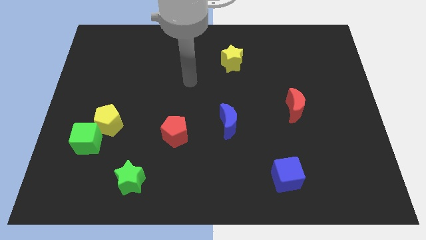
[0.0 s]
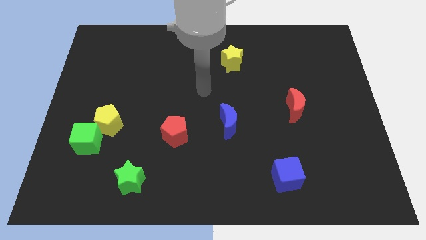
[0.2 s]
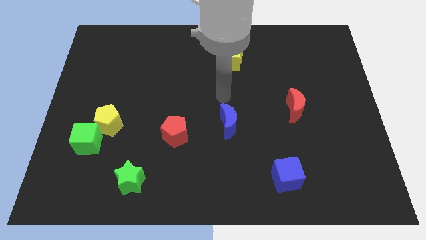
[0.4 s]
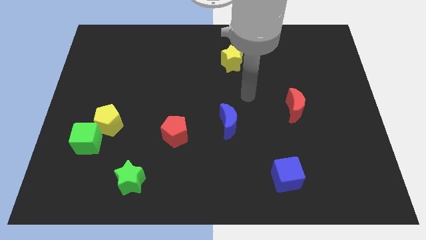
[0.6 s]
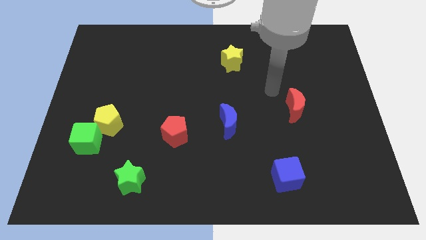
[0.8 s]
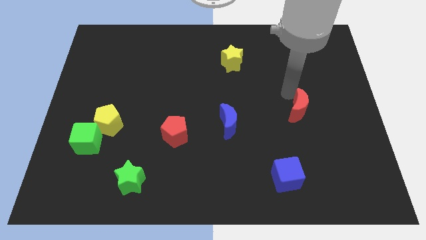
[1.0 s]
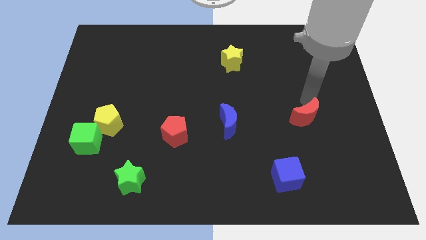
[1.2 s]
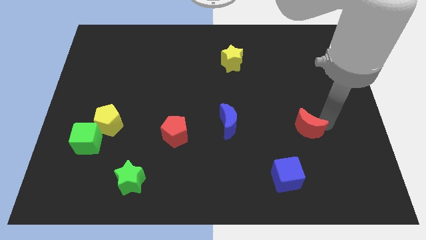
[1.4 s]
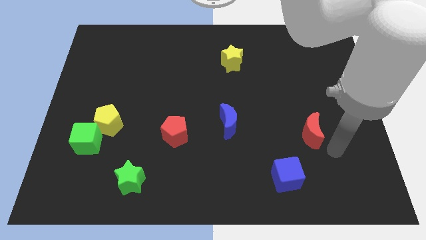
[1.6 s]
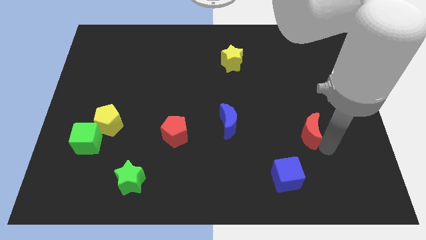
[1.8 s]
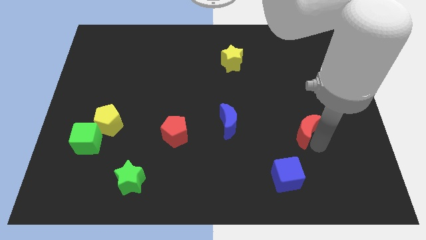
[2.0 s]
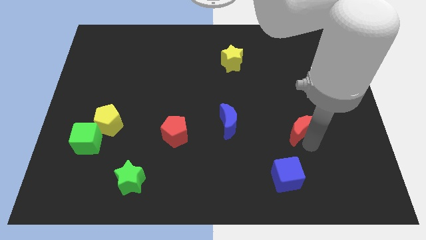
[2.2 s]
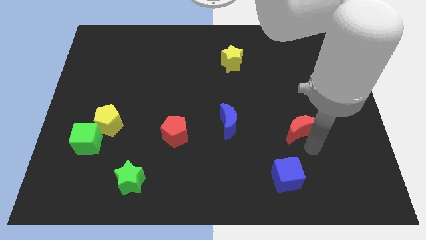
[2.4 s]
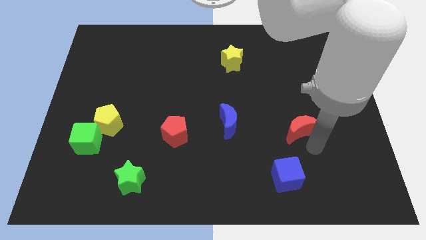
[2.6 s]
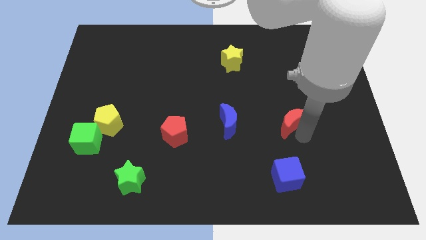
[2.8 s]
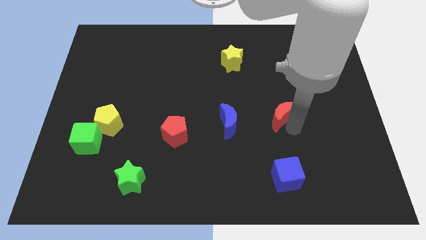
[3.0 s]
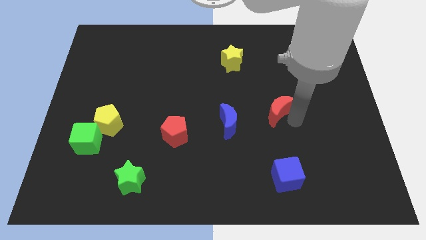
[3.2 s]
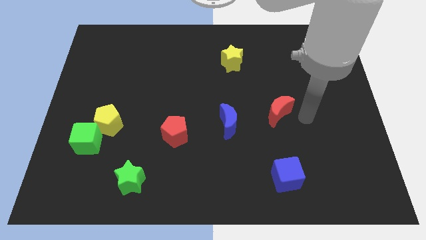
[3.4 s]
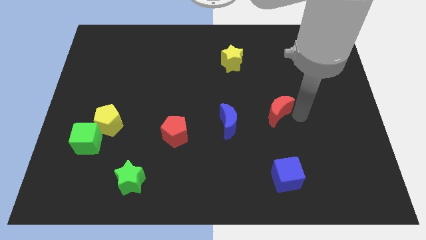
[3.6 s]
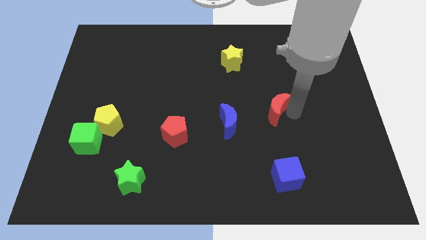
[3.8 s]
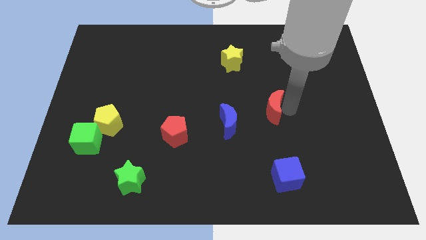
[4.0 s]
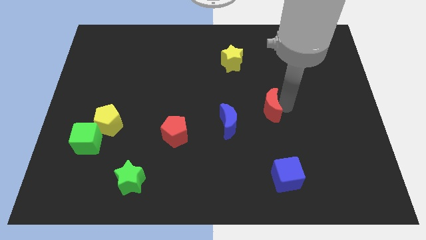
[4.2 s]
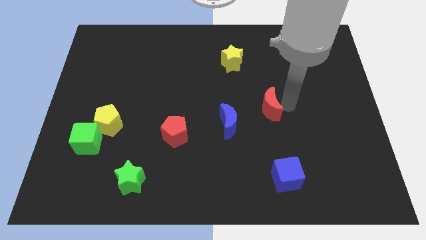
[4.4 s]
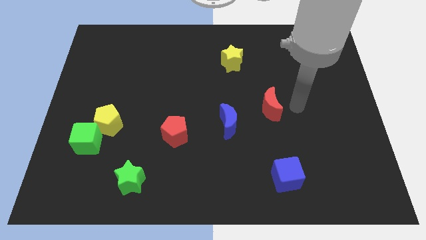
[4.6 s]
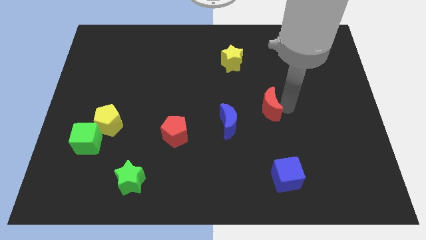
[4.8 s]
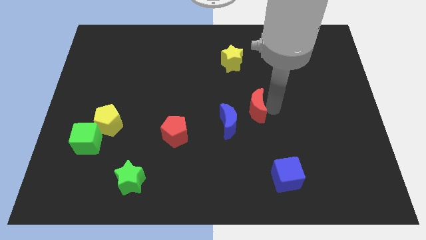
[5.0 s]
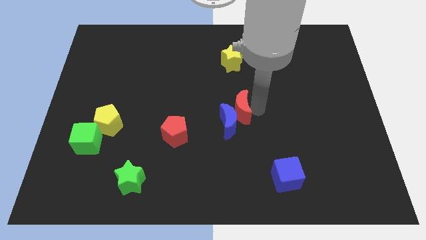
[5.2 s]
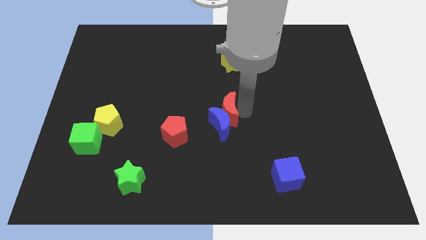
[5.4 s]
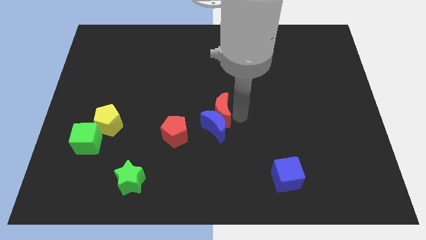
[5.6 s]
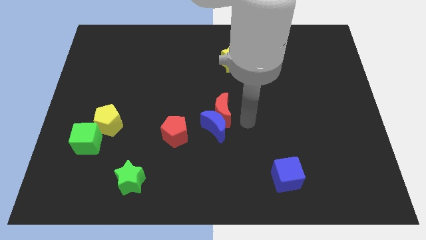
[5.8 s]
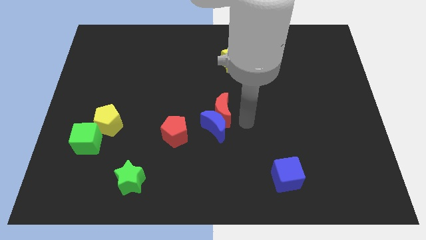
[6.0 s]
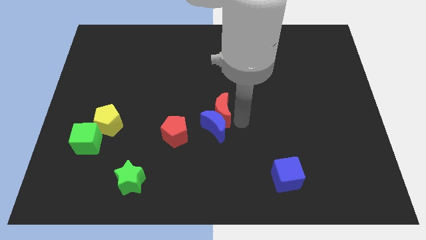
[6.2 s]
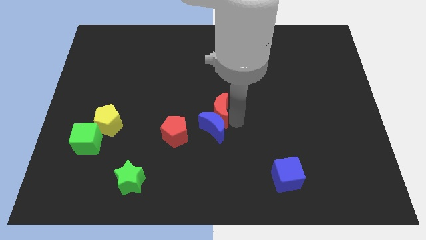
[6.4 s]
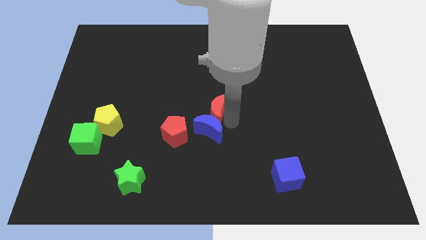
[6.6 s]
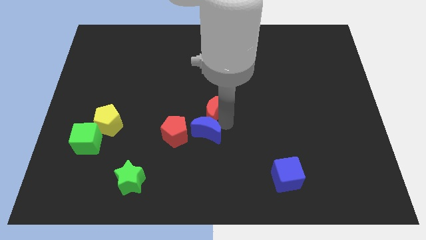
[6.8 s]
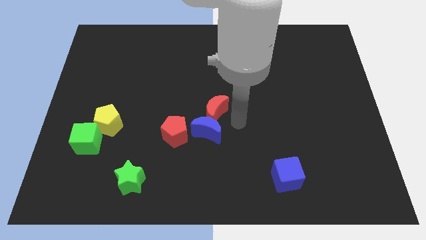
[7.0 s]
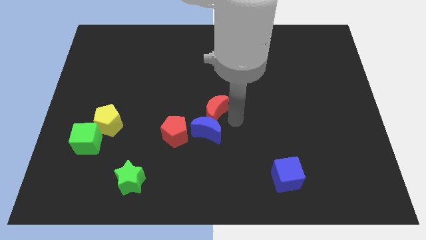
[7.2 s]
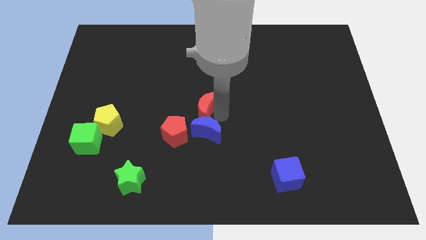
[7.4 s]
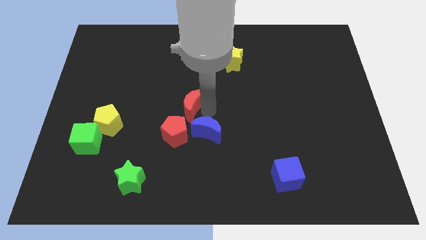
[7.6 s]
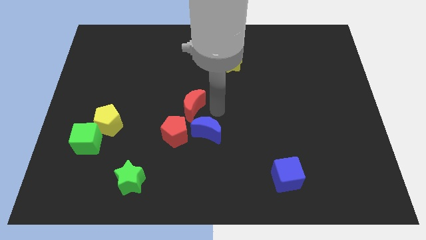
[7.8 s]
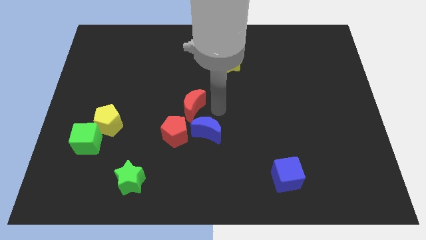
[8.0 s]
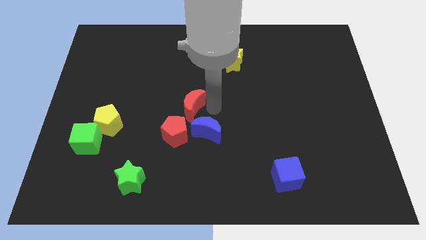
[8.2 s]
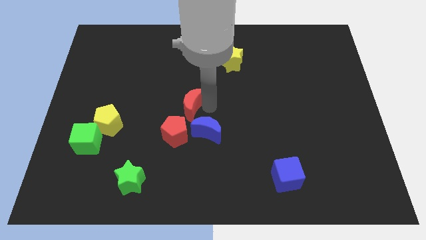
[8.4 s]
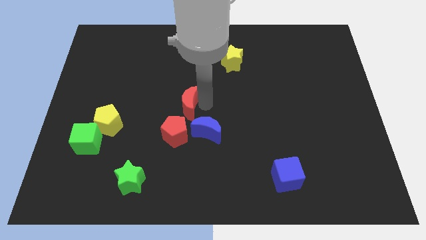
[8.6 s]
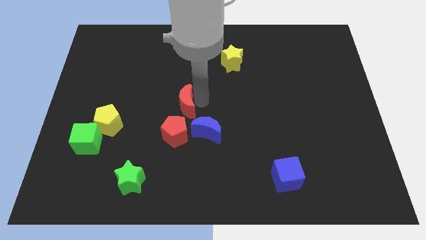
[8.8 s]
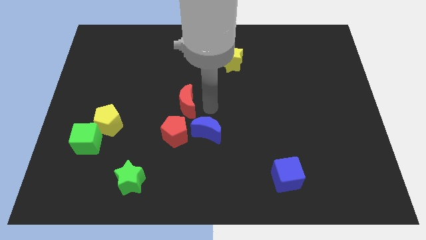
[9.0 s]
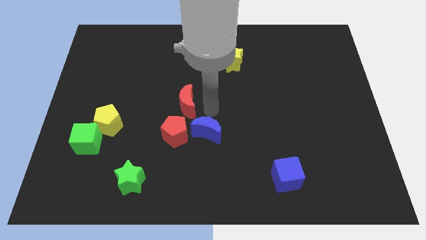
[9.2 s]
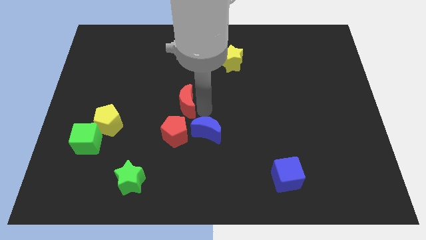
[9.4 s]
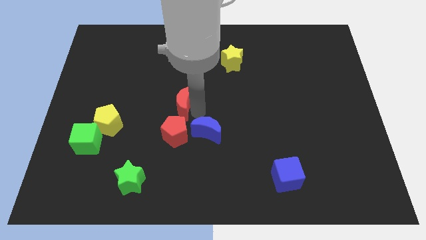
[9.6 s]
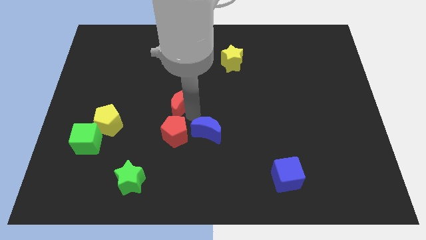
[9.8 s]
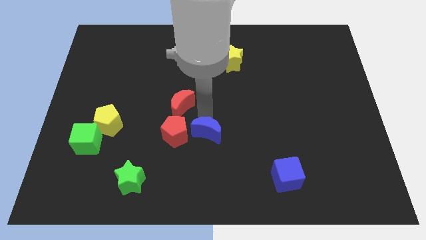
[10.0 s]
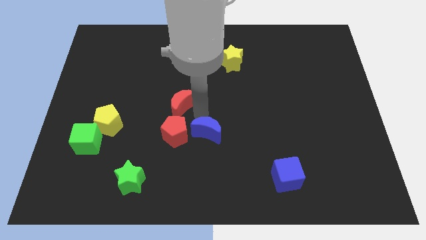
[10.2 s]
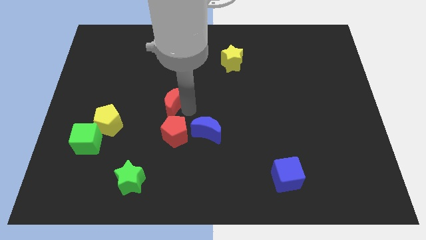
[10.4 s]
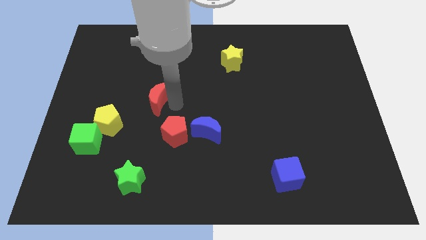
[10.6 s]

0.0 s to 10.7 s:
slide the red moon diagonally up and to the right of the yellow pentagon

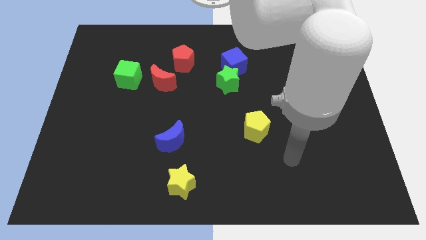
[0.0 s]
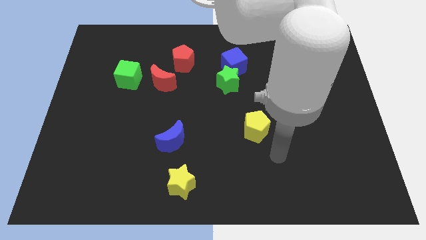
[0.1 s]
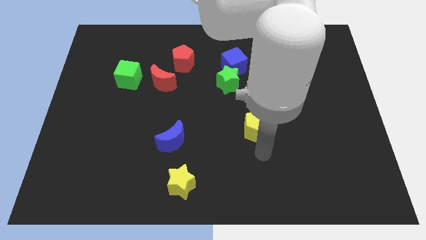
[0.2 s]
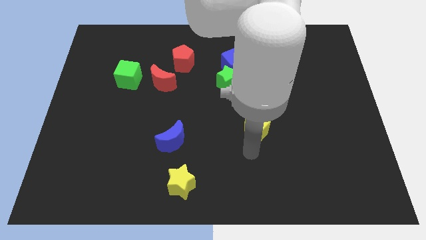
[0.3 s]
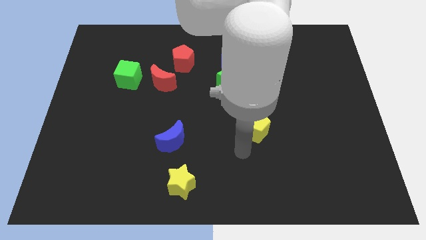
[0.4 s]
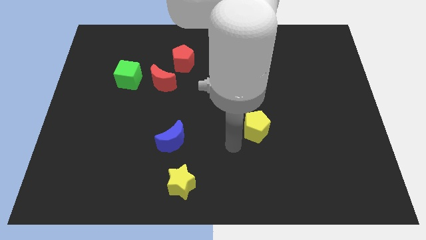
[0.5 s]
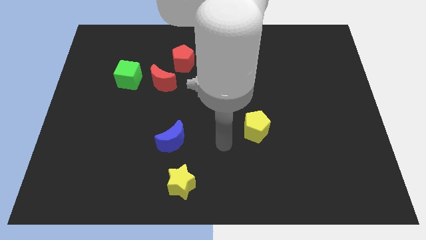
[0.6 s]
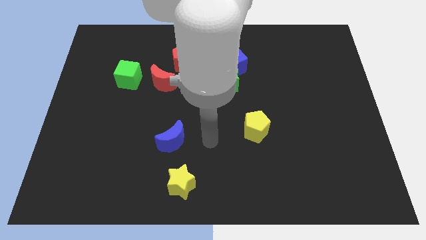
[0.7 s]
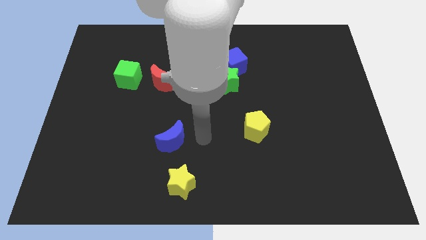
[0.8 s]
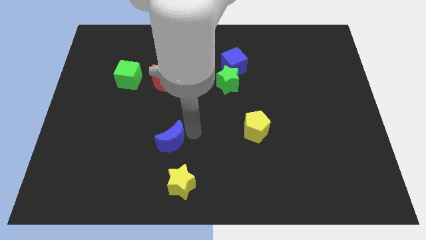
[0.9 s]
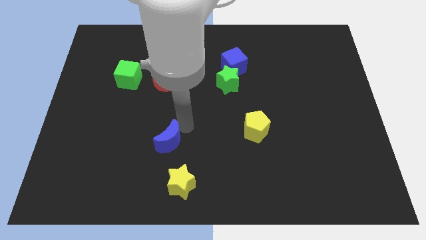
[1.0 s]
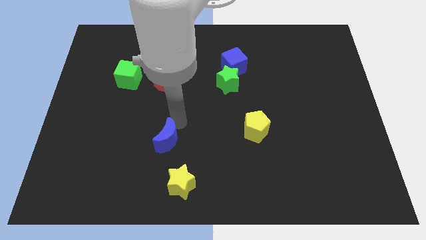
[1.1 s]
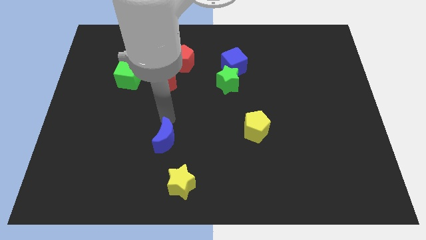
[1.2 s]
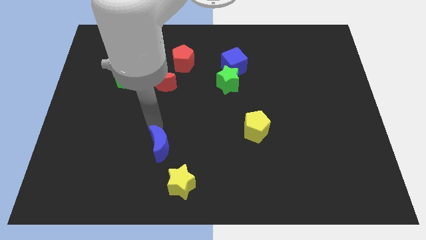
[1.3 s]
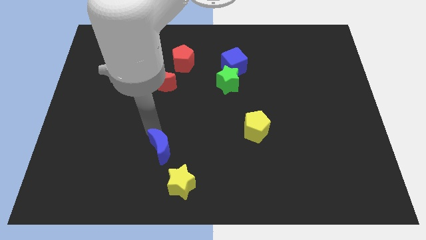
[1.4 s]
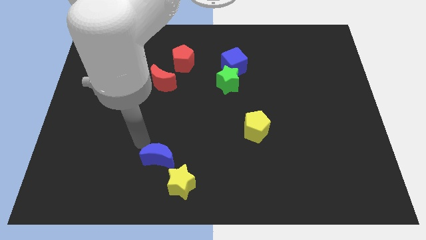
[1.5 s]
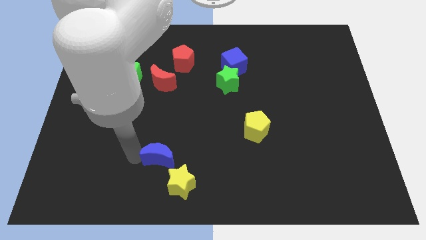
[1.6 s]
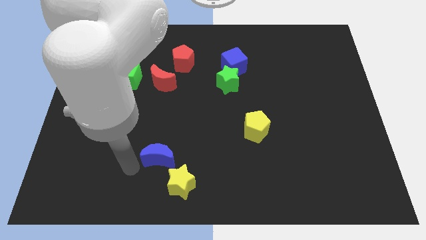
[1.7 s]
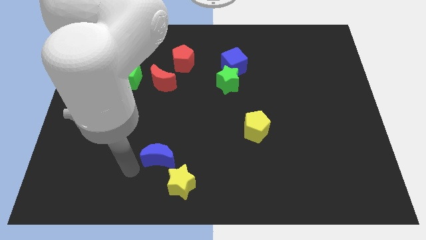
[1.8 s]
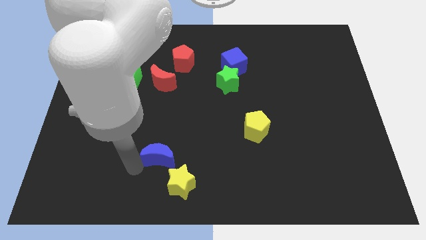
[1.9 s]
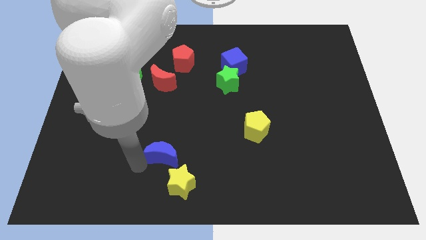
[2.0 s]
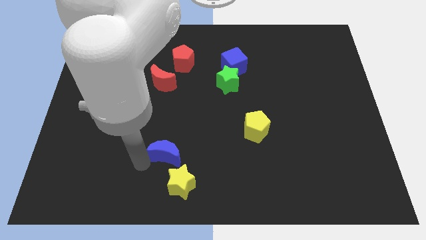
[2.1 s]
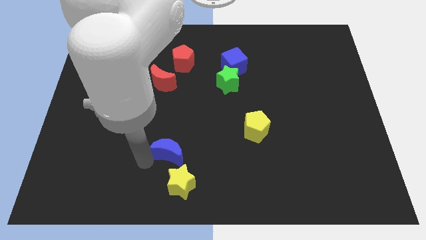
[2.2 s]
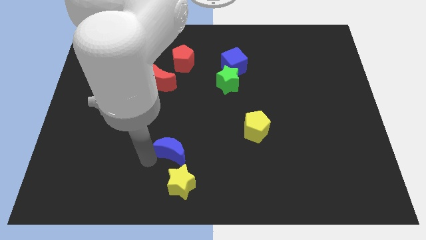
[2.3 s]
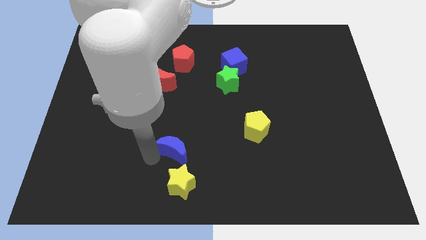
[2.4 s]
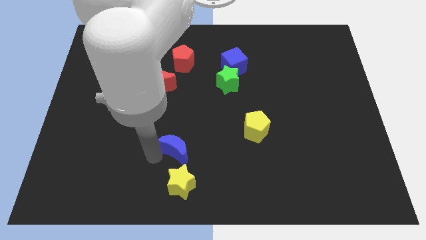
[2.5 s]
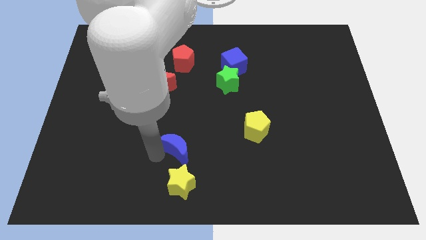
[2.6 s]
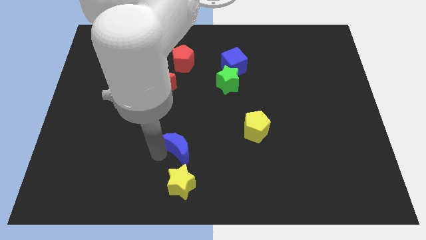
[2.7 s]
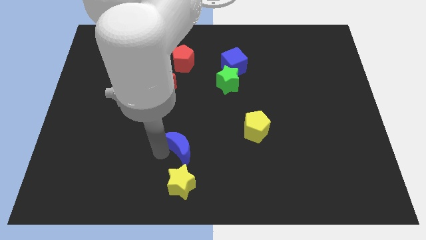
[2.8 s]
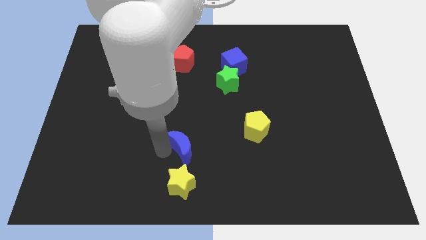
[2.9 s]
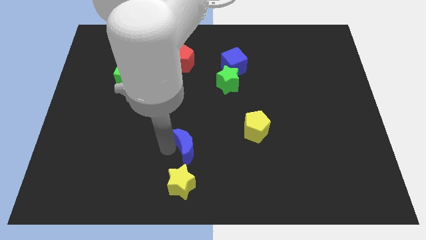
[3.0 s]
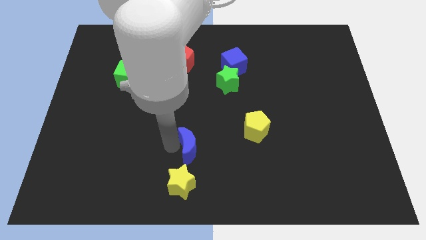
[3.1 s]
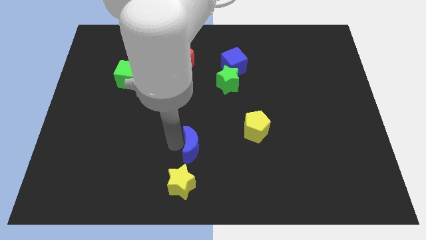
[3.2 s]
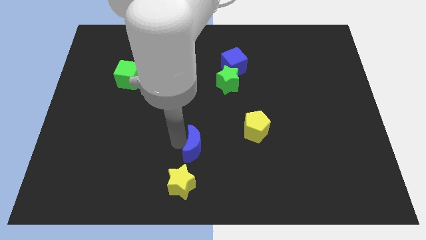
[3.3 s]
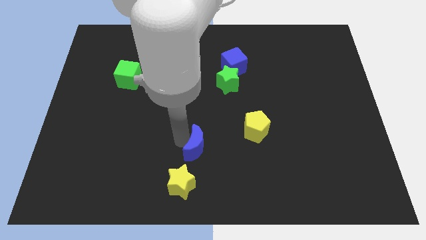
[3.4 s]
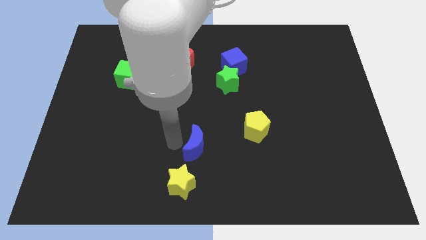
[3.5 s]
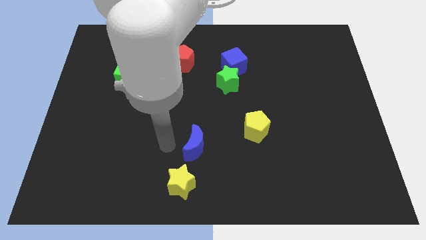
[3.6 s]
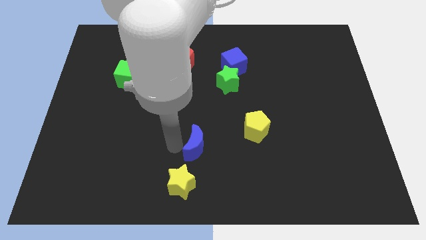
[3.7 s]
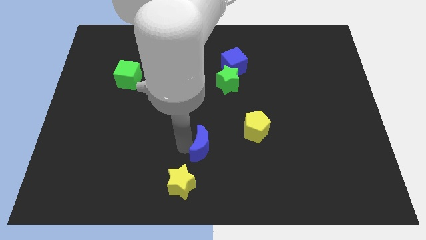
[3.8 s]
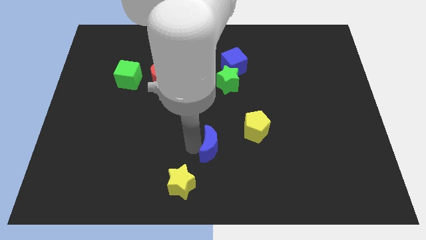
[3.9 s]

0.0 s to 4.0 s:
slide the blue moon diagonally down and to the left of the yellow pentagon
